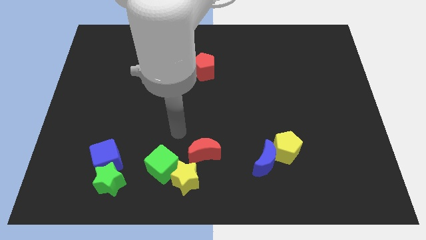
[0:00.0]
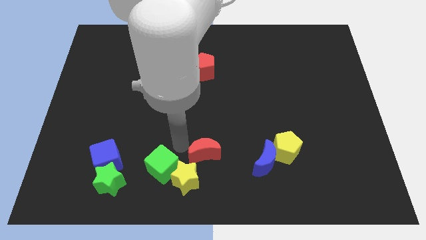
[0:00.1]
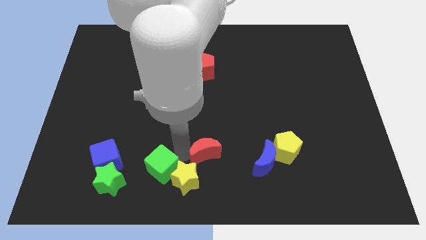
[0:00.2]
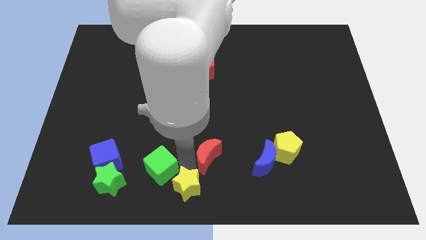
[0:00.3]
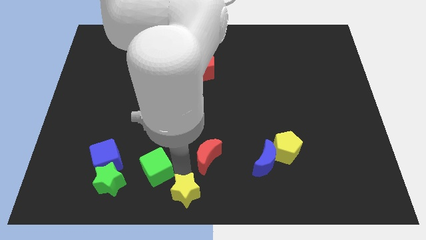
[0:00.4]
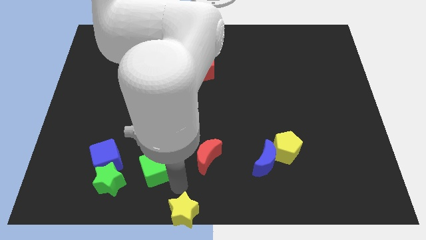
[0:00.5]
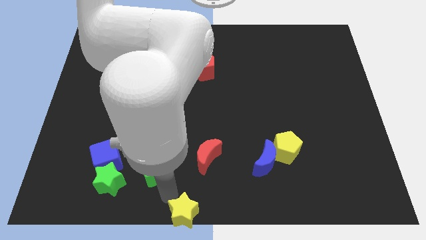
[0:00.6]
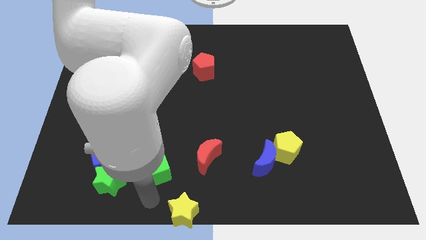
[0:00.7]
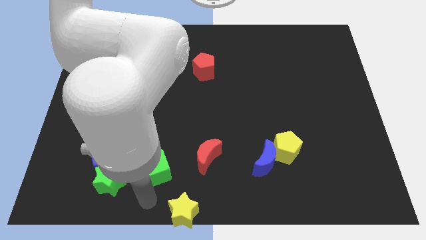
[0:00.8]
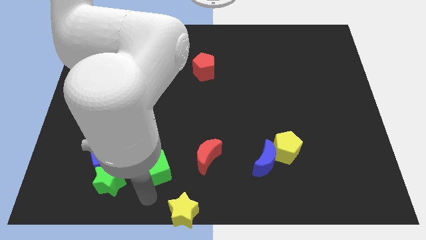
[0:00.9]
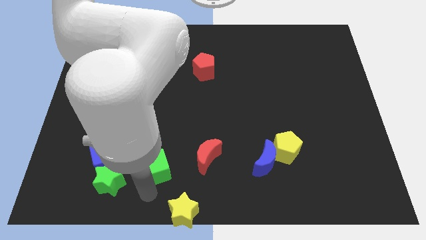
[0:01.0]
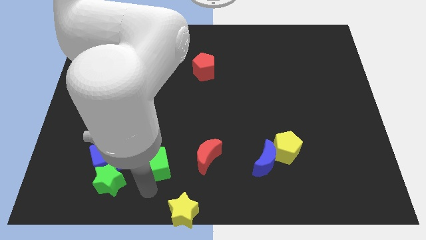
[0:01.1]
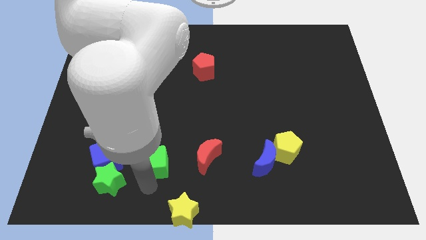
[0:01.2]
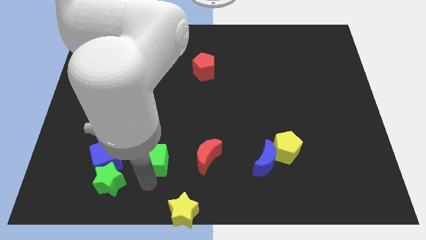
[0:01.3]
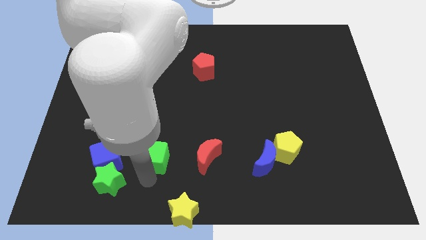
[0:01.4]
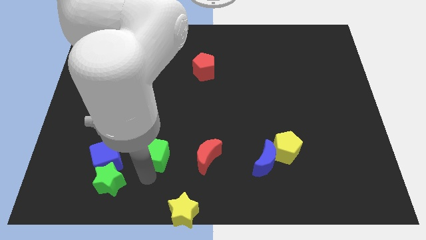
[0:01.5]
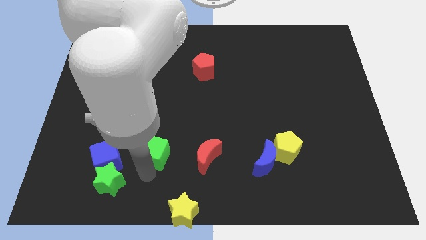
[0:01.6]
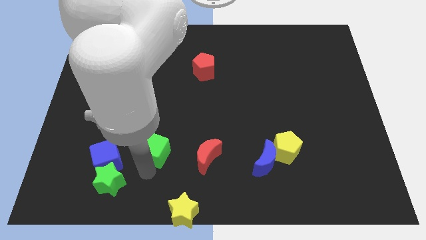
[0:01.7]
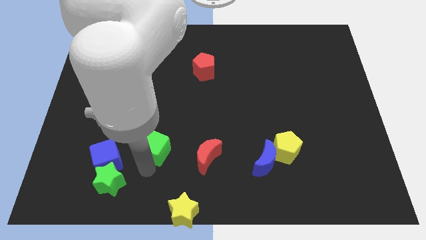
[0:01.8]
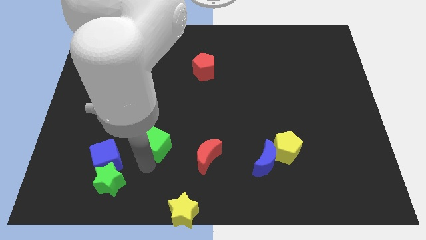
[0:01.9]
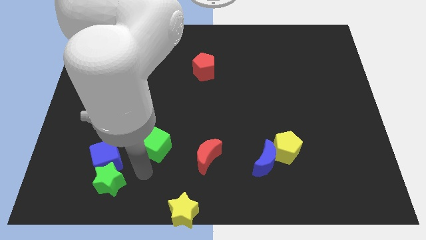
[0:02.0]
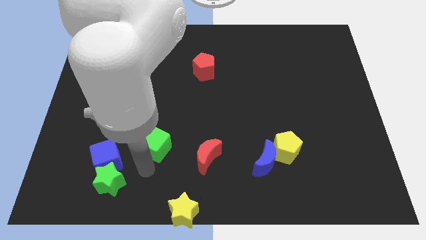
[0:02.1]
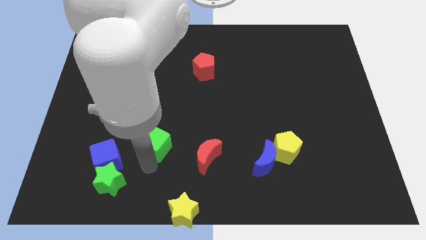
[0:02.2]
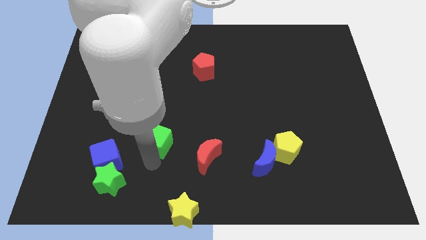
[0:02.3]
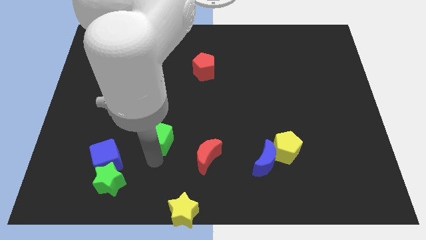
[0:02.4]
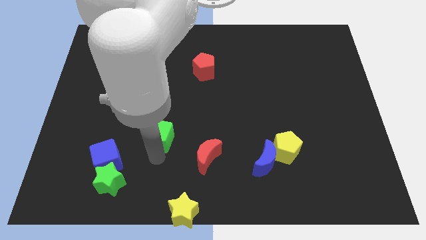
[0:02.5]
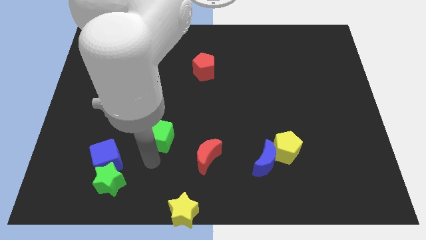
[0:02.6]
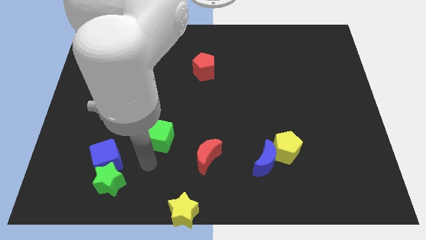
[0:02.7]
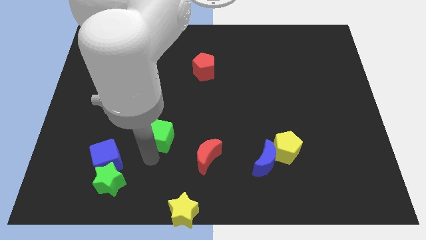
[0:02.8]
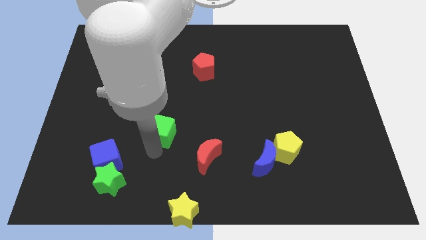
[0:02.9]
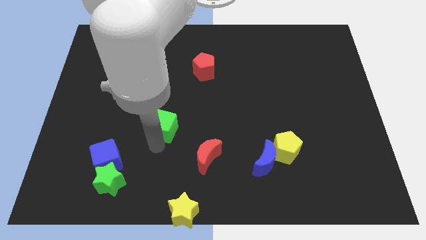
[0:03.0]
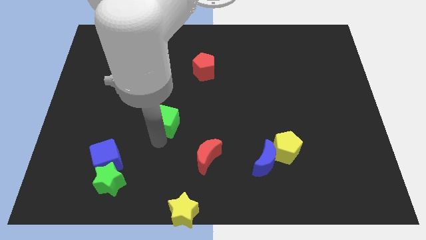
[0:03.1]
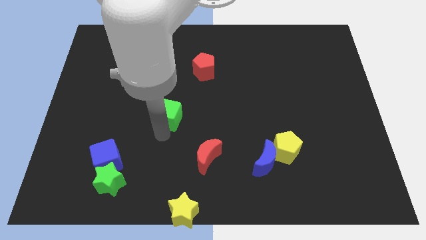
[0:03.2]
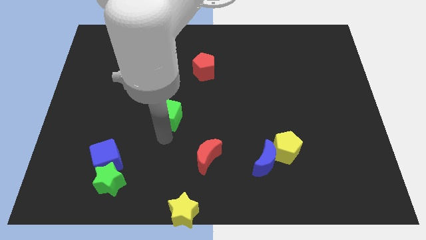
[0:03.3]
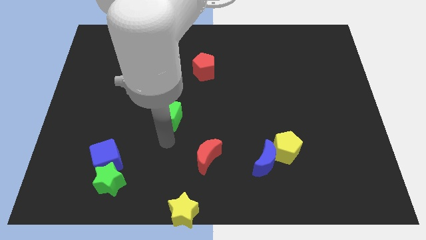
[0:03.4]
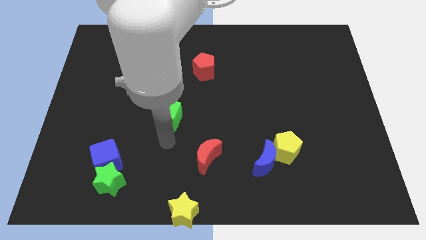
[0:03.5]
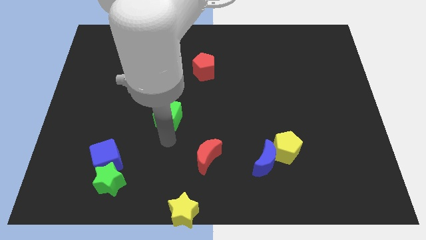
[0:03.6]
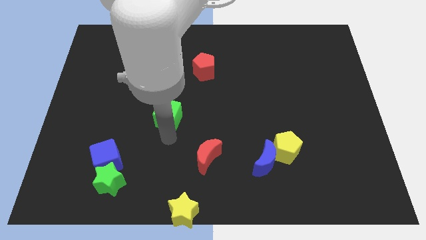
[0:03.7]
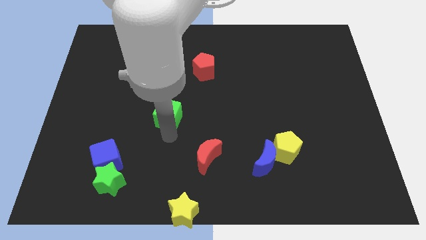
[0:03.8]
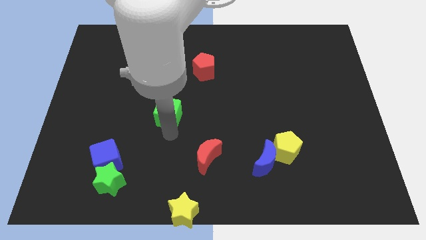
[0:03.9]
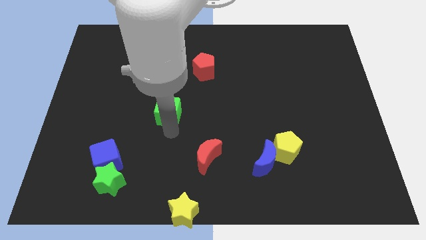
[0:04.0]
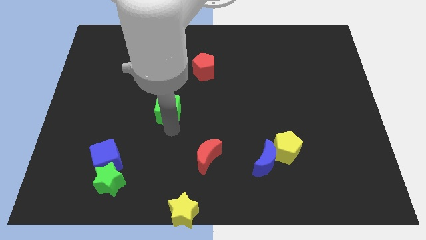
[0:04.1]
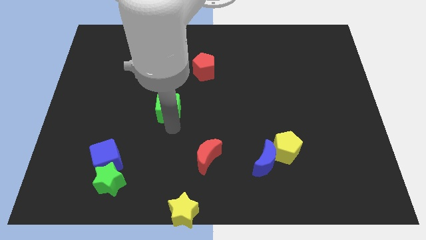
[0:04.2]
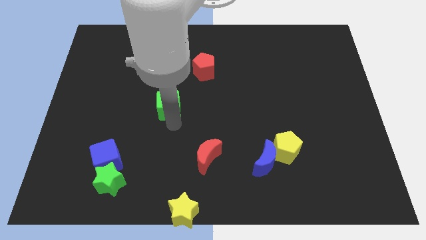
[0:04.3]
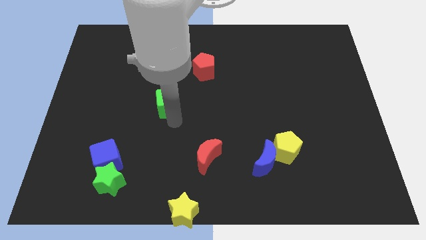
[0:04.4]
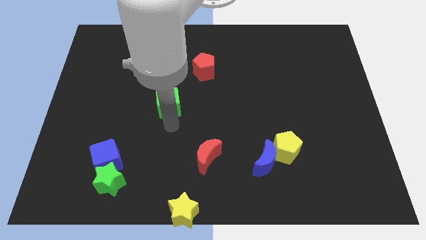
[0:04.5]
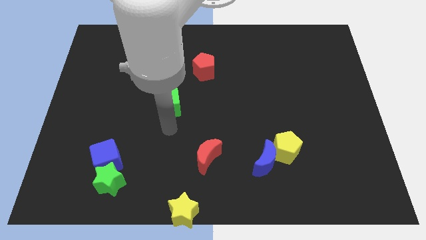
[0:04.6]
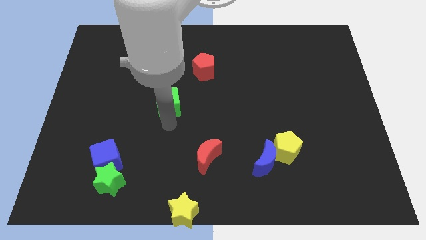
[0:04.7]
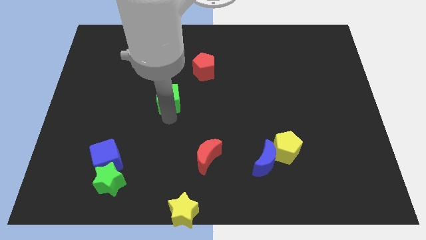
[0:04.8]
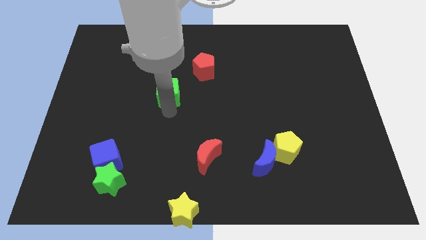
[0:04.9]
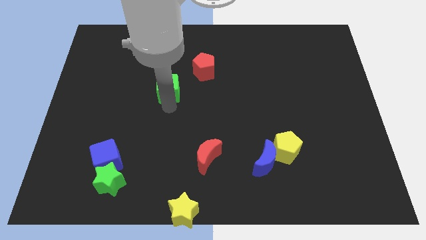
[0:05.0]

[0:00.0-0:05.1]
slide the green cube upwards

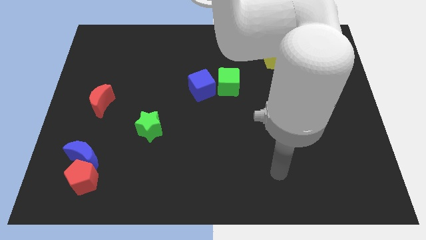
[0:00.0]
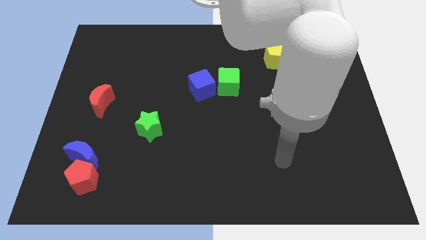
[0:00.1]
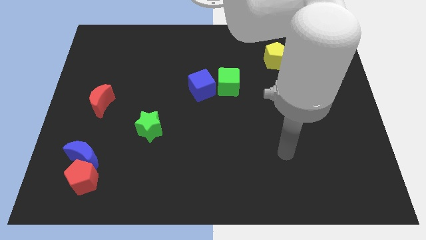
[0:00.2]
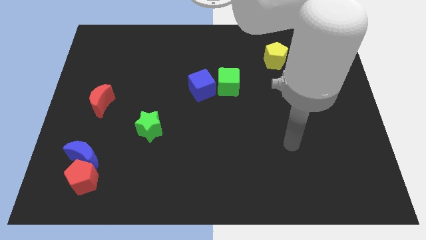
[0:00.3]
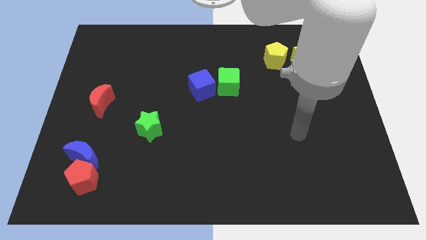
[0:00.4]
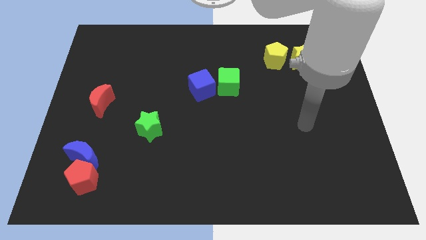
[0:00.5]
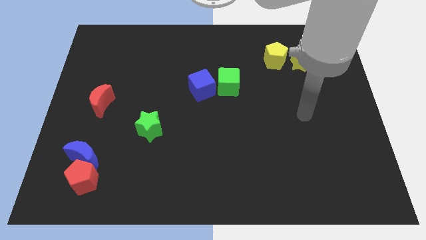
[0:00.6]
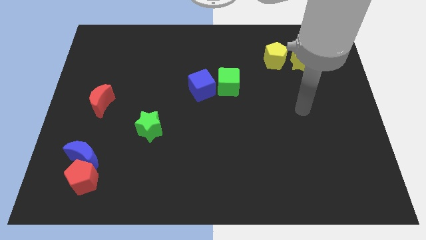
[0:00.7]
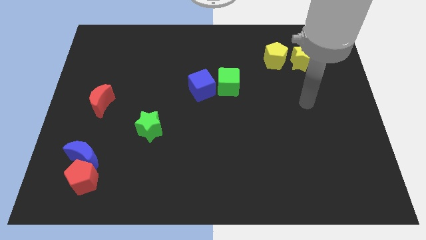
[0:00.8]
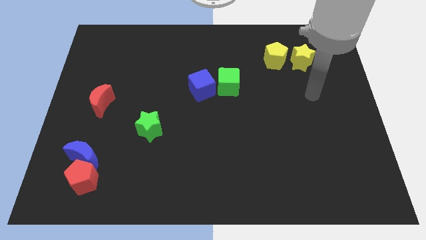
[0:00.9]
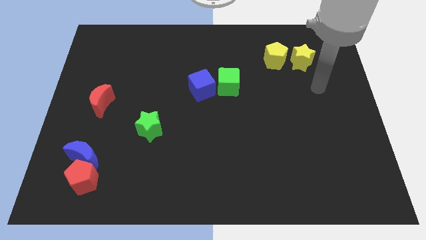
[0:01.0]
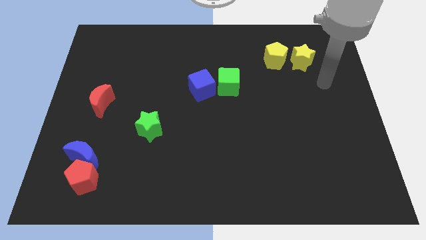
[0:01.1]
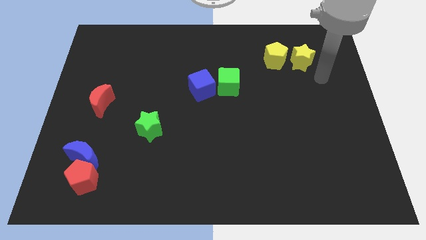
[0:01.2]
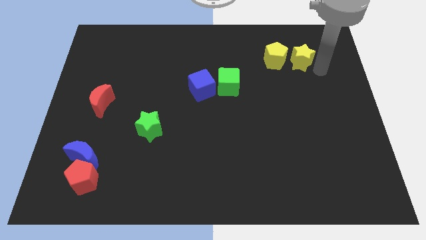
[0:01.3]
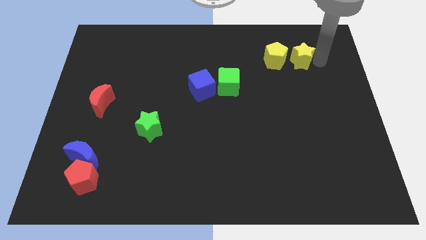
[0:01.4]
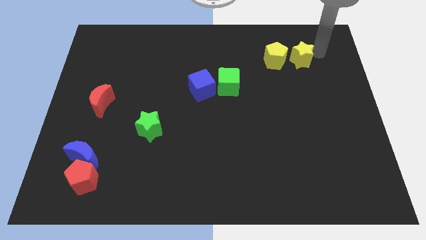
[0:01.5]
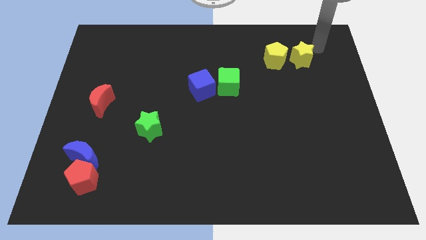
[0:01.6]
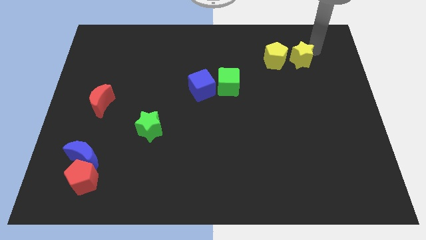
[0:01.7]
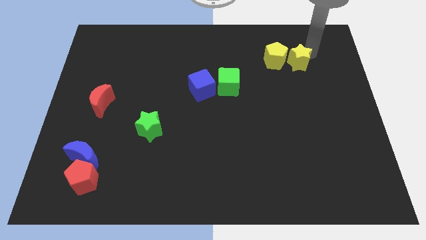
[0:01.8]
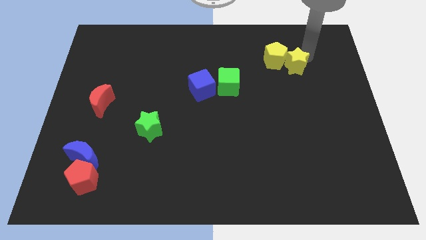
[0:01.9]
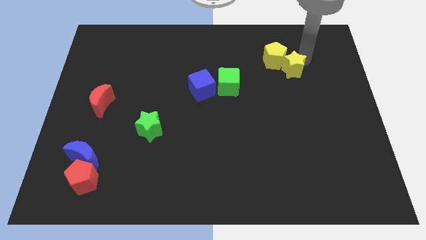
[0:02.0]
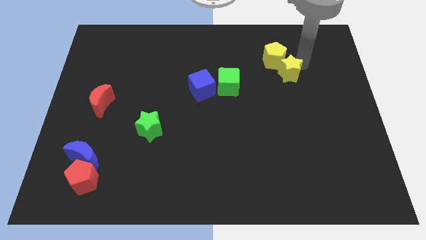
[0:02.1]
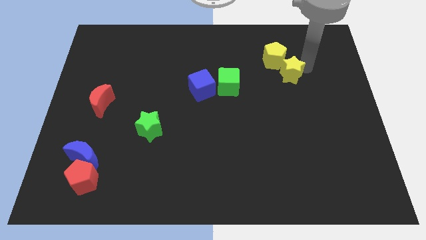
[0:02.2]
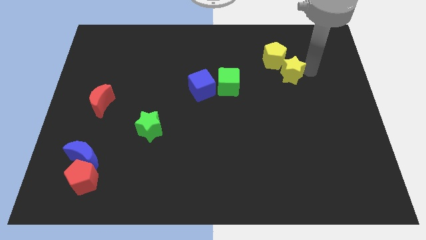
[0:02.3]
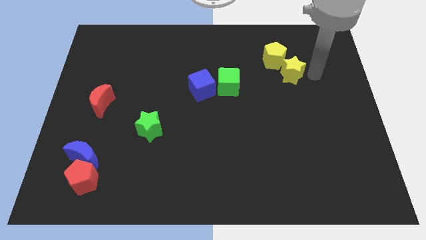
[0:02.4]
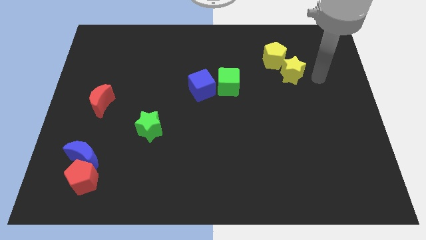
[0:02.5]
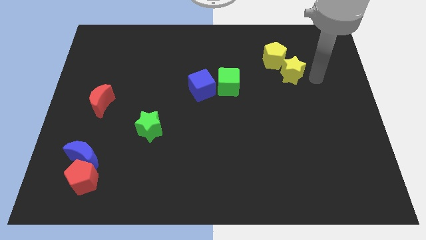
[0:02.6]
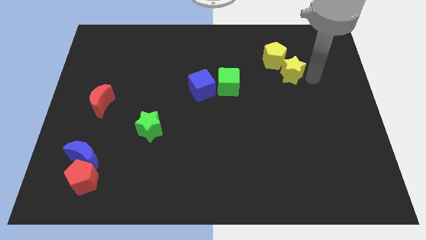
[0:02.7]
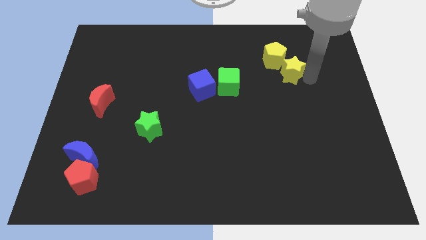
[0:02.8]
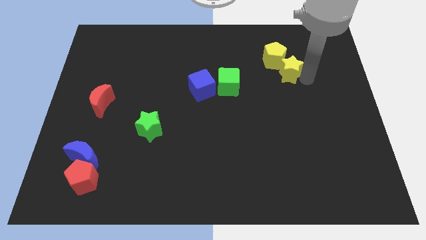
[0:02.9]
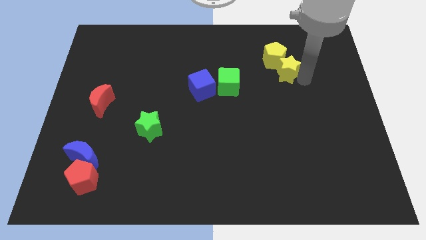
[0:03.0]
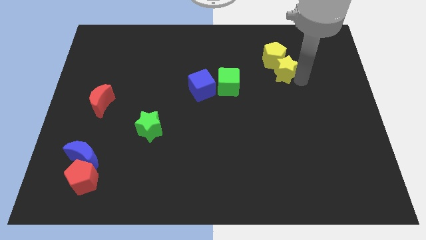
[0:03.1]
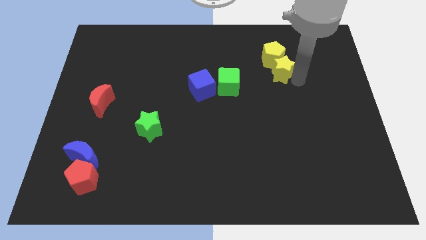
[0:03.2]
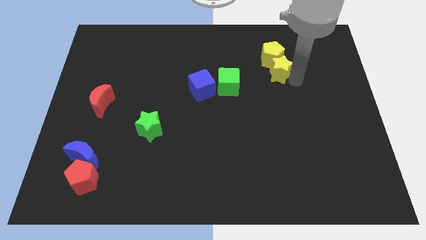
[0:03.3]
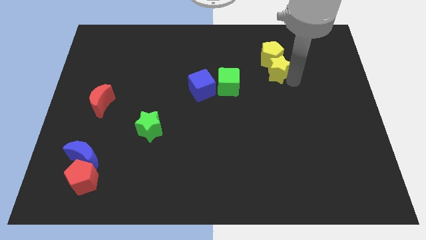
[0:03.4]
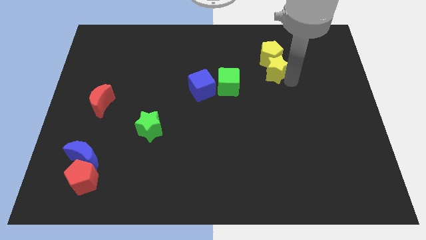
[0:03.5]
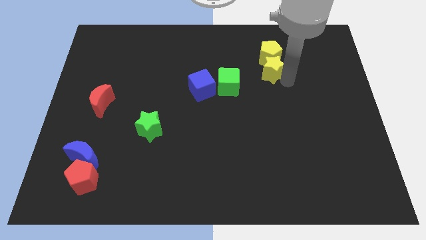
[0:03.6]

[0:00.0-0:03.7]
slightly slide the yellow star to the left
